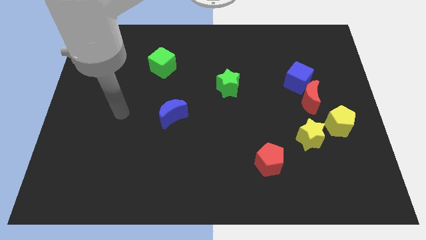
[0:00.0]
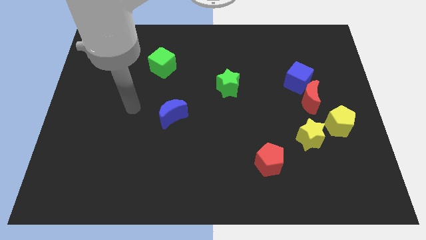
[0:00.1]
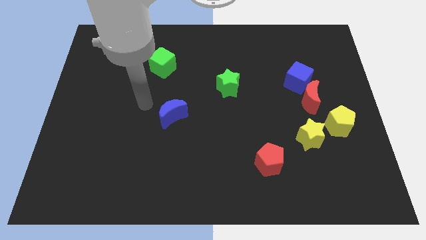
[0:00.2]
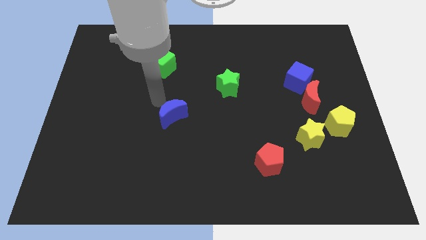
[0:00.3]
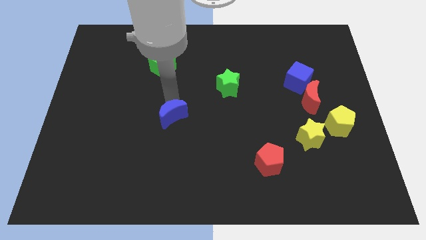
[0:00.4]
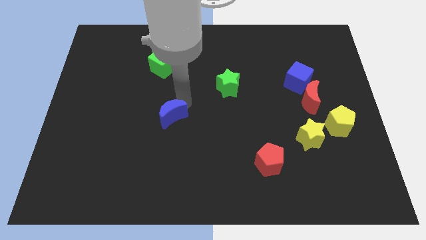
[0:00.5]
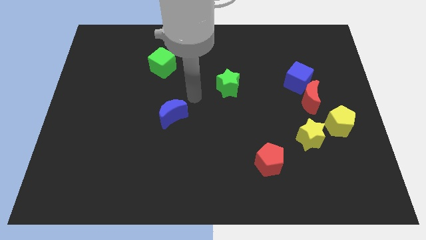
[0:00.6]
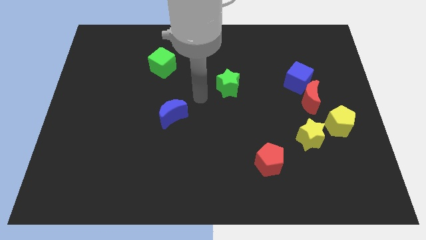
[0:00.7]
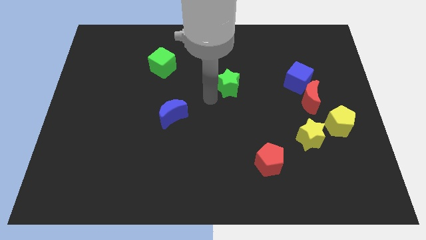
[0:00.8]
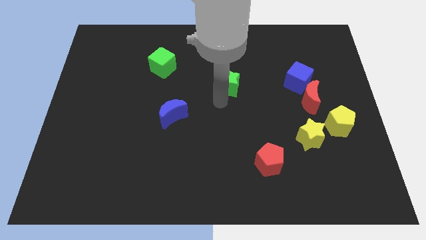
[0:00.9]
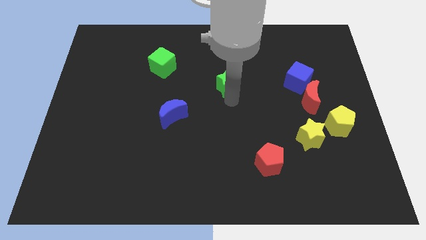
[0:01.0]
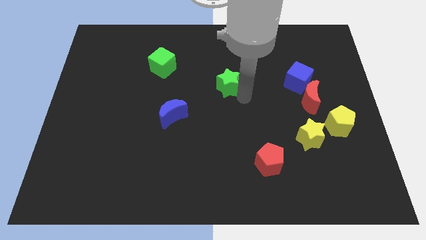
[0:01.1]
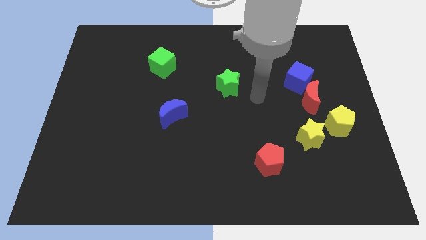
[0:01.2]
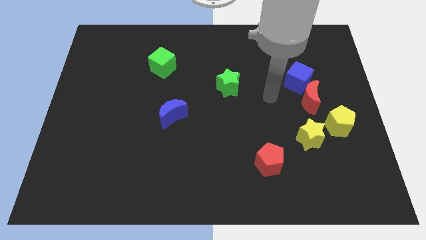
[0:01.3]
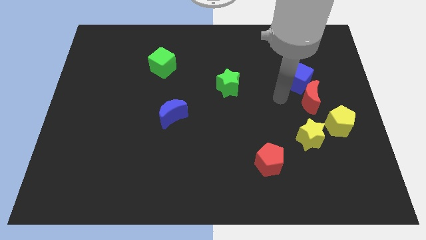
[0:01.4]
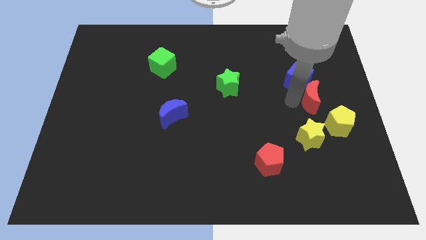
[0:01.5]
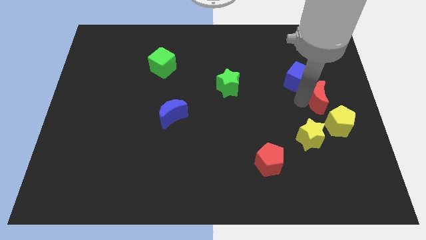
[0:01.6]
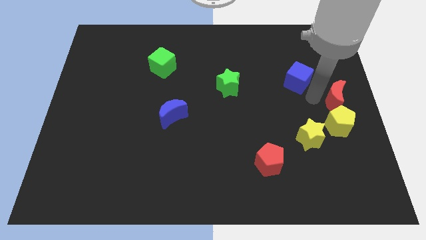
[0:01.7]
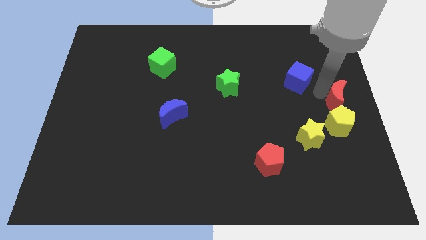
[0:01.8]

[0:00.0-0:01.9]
separate the blue cube from the red moon

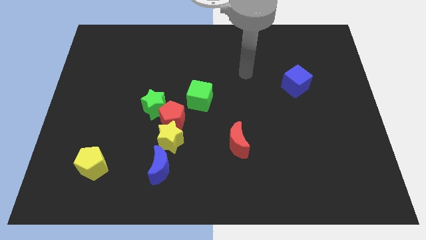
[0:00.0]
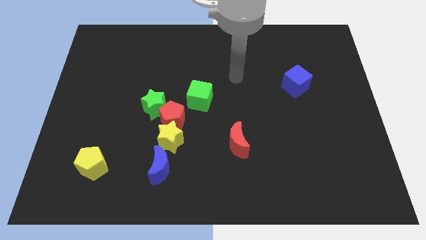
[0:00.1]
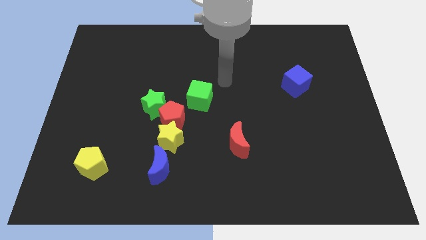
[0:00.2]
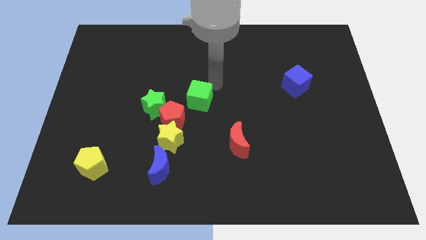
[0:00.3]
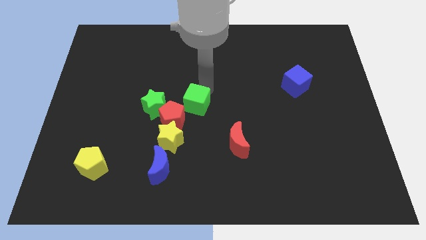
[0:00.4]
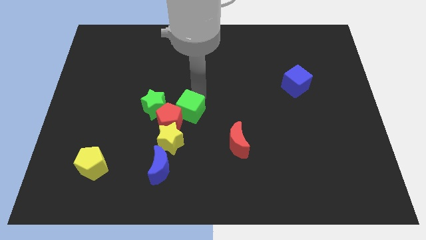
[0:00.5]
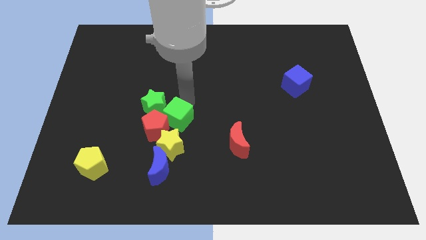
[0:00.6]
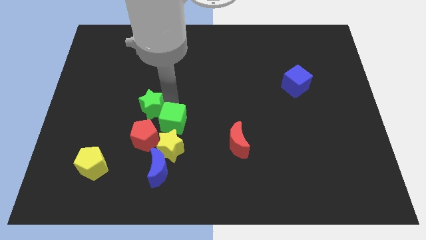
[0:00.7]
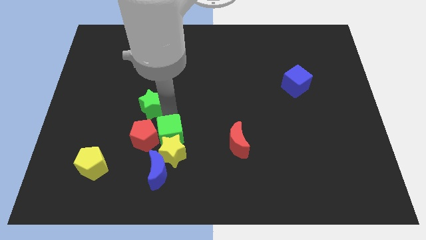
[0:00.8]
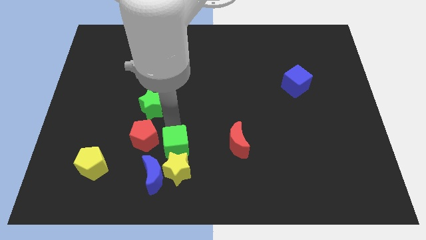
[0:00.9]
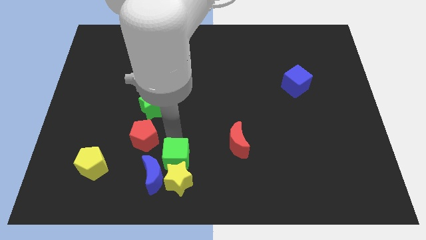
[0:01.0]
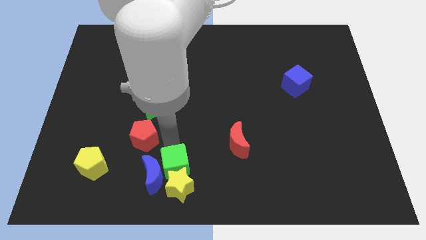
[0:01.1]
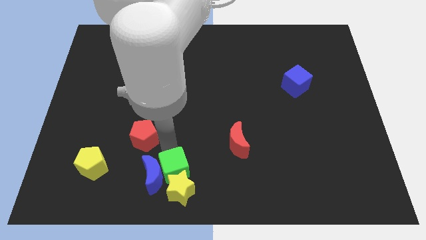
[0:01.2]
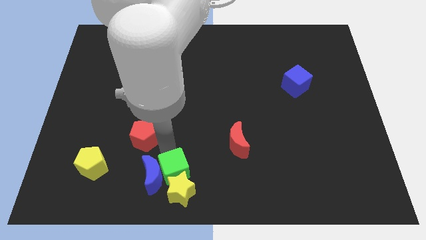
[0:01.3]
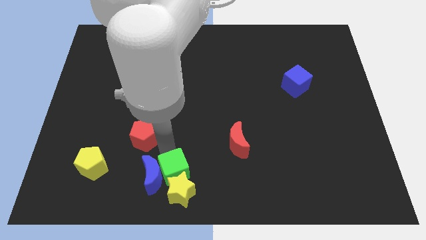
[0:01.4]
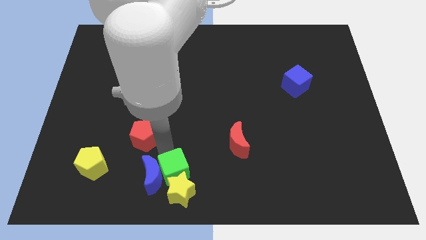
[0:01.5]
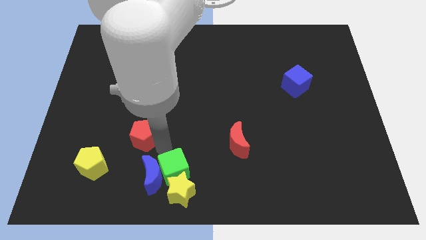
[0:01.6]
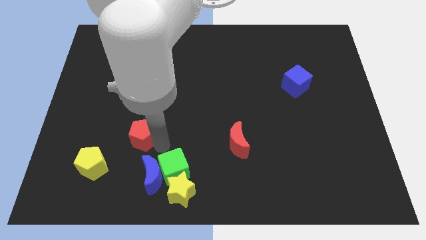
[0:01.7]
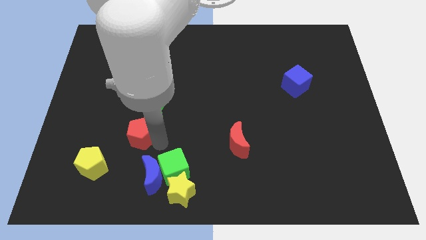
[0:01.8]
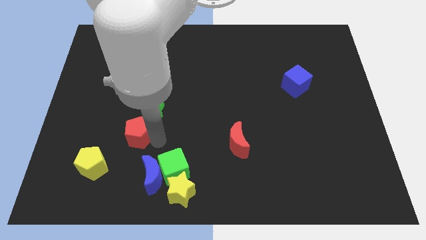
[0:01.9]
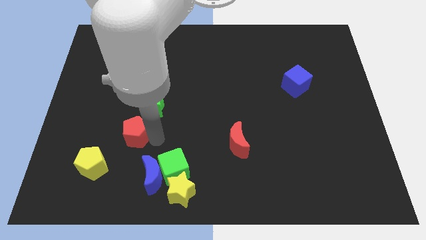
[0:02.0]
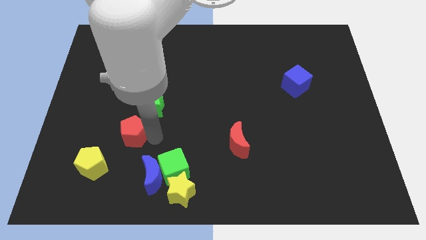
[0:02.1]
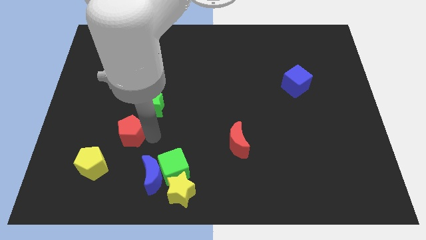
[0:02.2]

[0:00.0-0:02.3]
pull the red pentagon apart from the clump

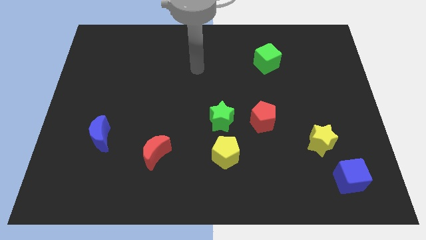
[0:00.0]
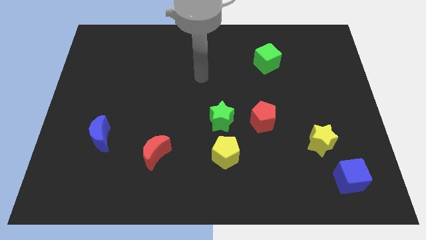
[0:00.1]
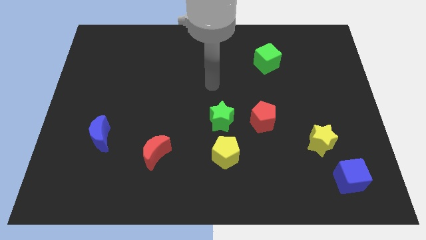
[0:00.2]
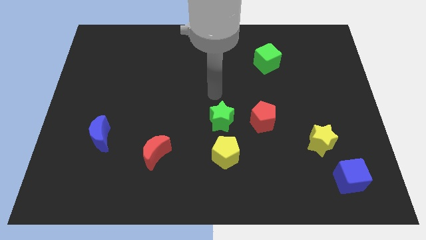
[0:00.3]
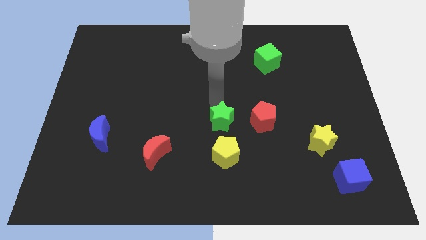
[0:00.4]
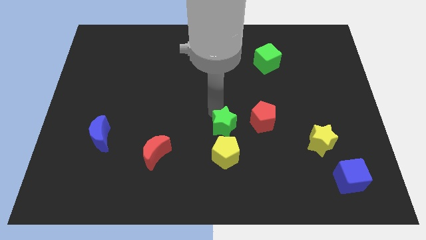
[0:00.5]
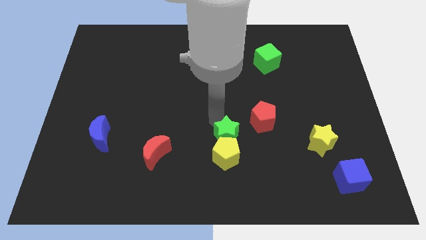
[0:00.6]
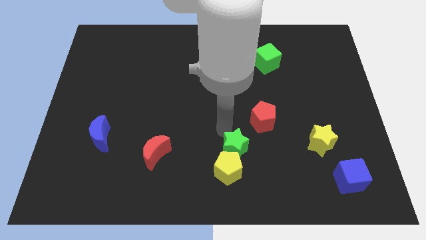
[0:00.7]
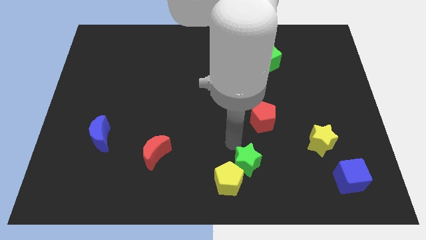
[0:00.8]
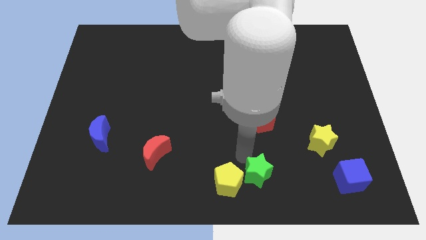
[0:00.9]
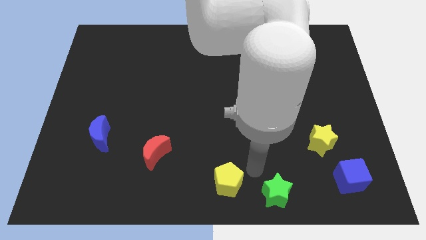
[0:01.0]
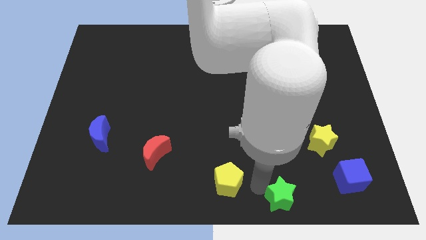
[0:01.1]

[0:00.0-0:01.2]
separate the yellow pentagon from the green star

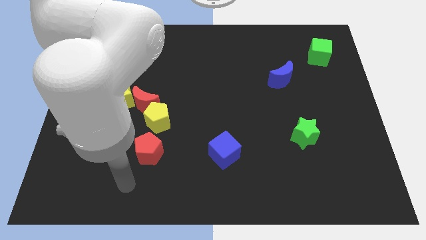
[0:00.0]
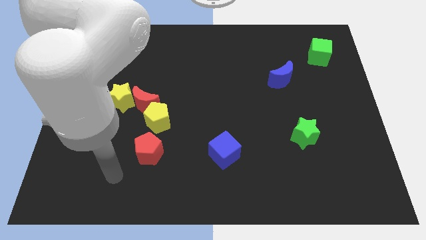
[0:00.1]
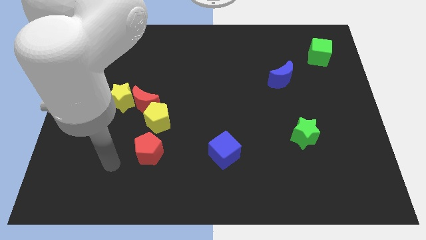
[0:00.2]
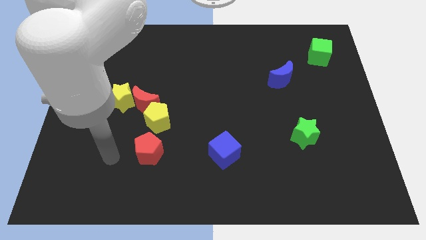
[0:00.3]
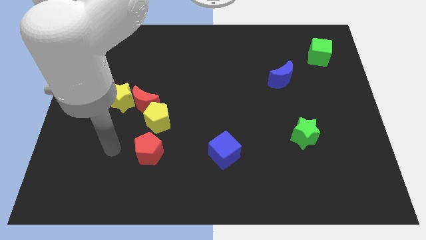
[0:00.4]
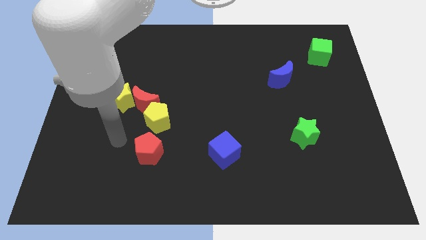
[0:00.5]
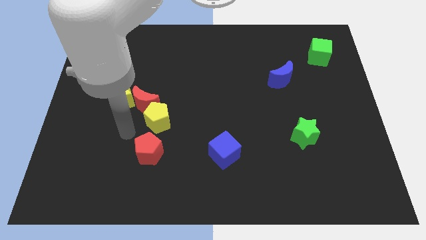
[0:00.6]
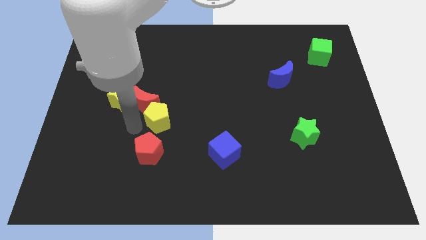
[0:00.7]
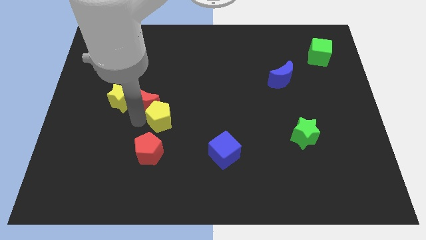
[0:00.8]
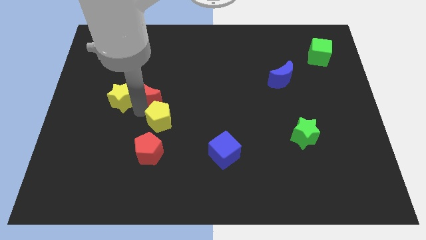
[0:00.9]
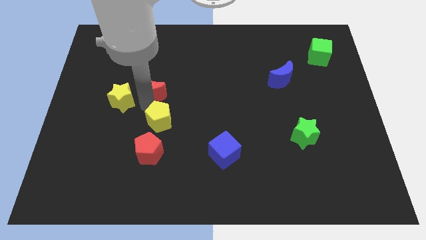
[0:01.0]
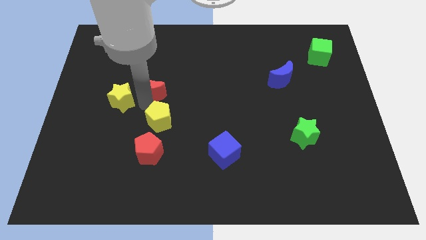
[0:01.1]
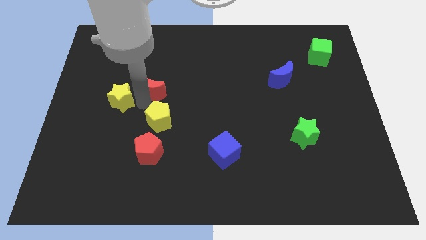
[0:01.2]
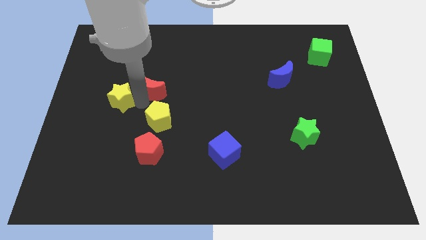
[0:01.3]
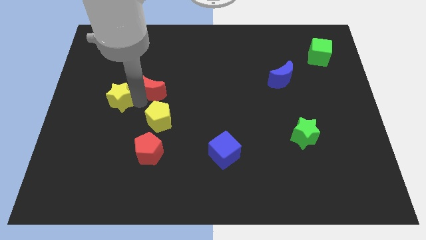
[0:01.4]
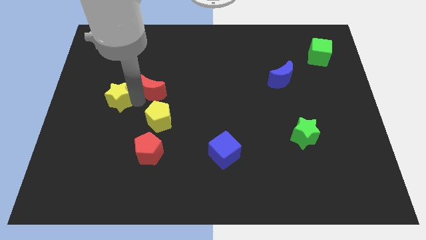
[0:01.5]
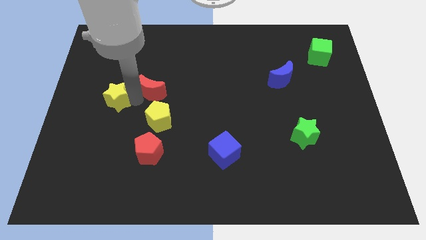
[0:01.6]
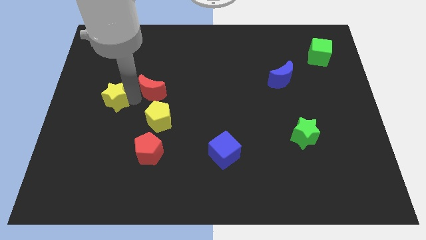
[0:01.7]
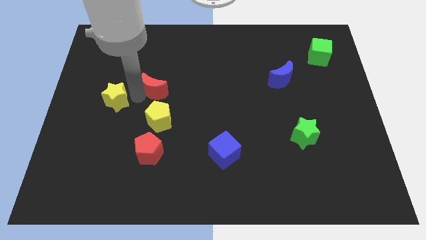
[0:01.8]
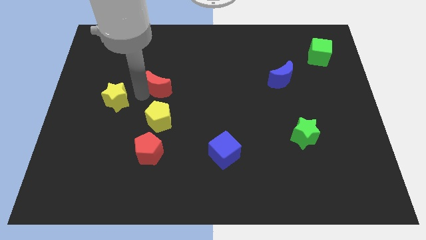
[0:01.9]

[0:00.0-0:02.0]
separate the yellow star from the red moon

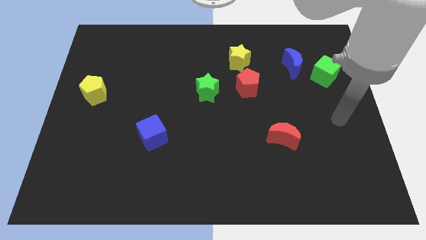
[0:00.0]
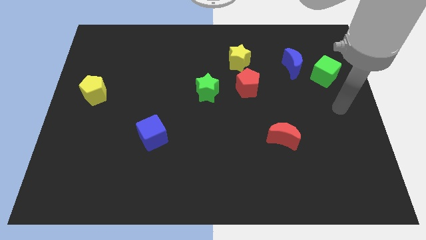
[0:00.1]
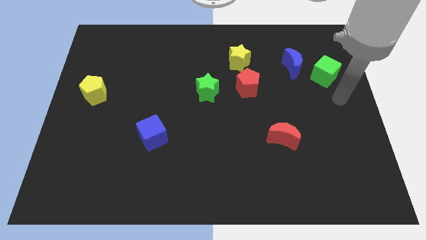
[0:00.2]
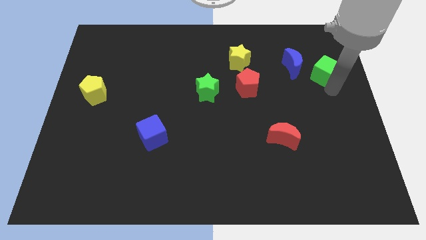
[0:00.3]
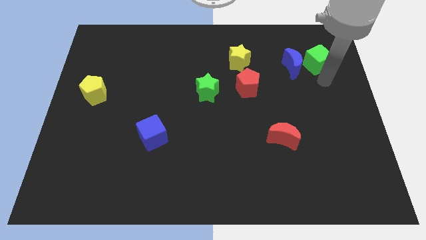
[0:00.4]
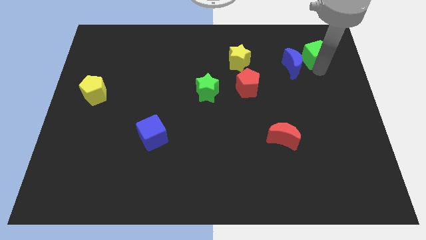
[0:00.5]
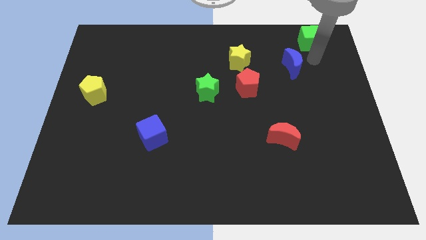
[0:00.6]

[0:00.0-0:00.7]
separate the blue moon from the green cube

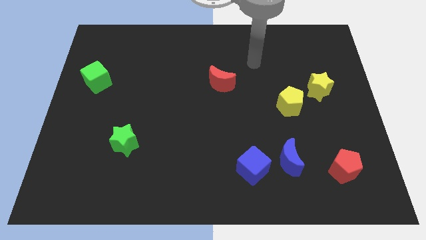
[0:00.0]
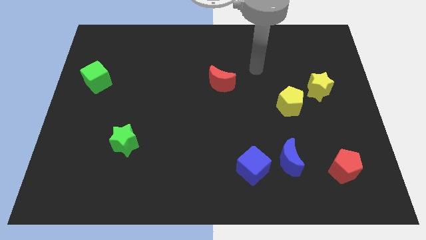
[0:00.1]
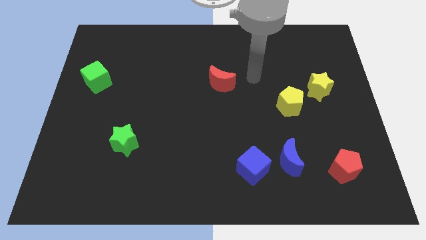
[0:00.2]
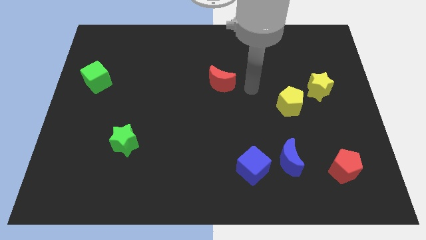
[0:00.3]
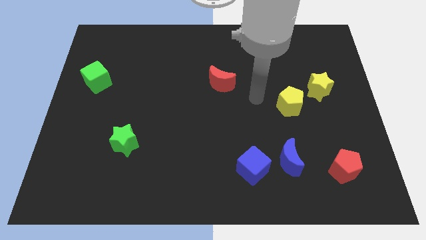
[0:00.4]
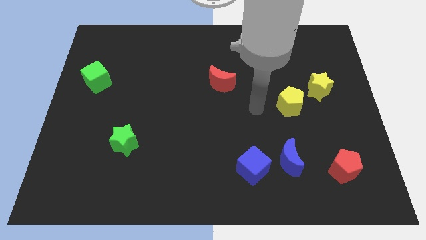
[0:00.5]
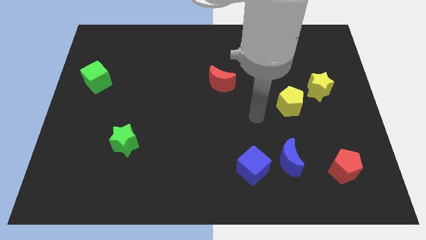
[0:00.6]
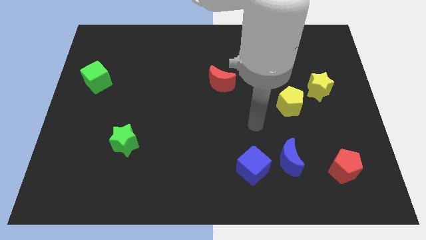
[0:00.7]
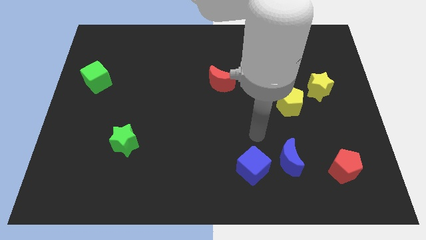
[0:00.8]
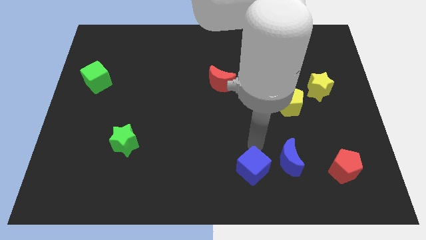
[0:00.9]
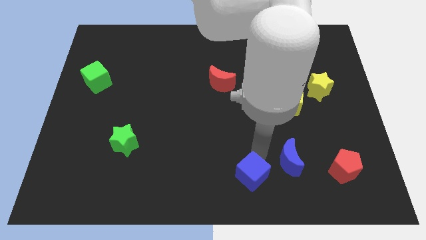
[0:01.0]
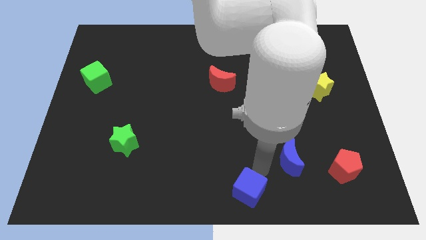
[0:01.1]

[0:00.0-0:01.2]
separate the blue moon from the blue cube
